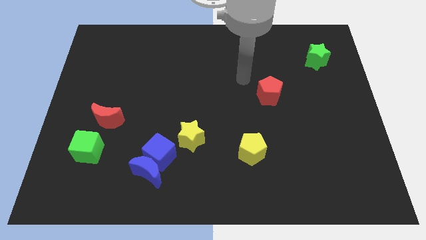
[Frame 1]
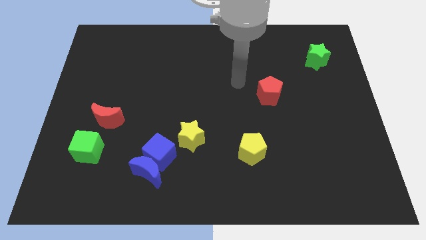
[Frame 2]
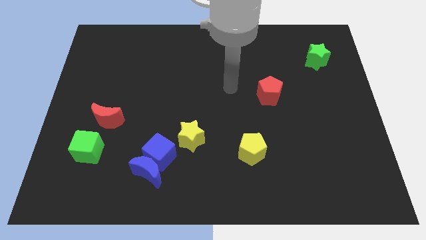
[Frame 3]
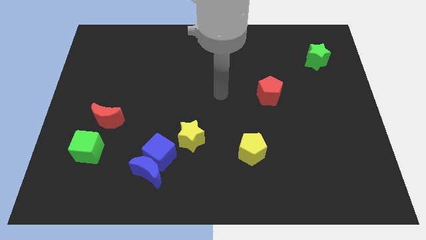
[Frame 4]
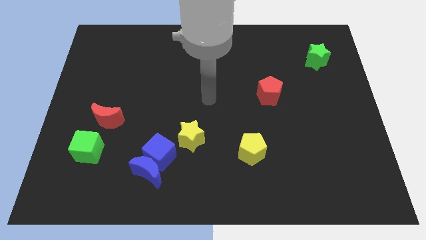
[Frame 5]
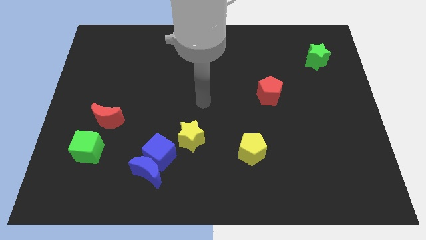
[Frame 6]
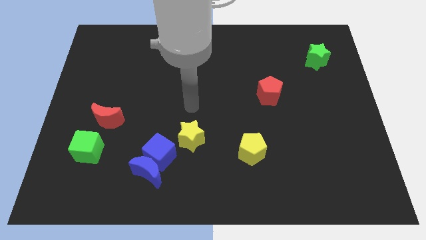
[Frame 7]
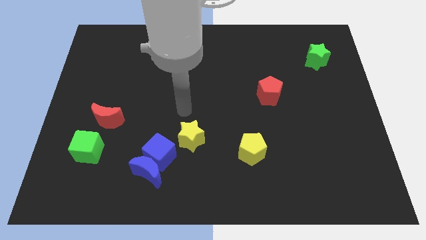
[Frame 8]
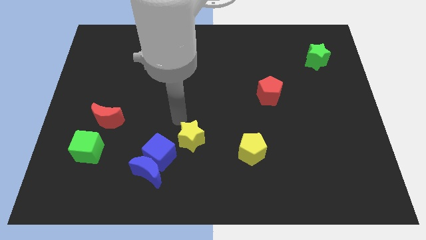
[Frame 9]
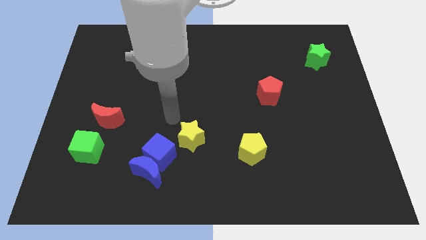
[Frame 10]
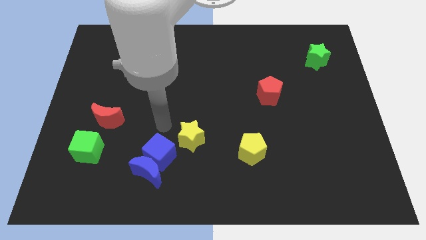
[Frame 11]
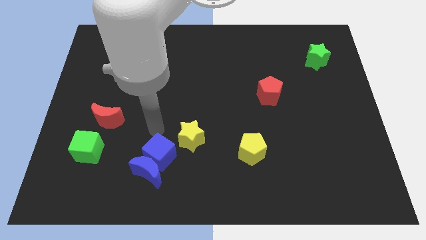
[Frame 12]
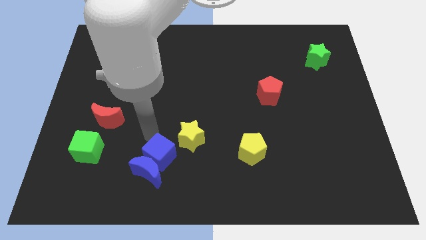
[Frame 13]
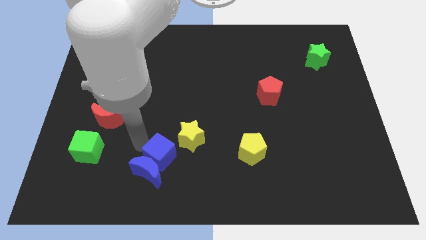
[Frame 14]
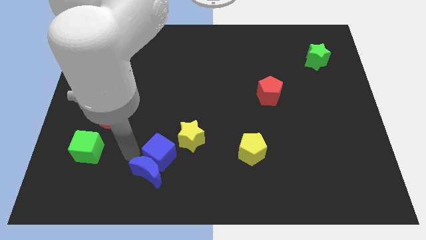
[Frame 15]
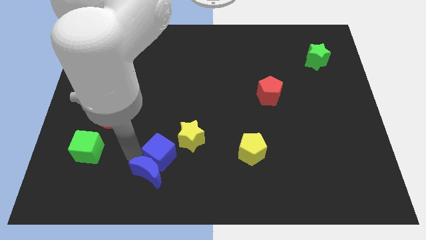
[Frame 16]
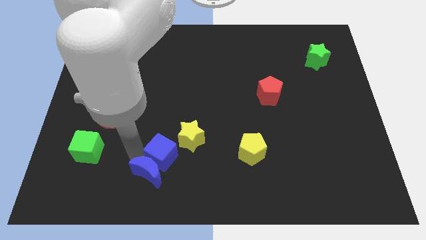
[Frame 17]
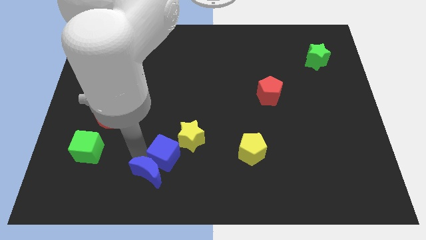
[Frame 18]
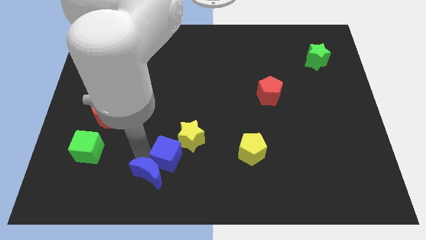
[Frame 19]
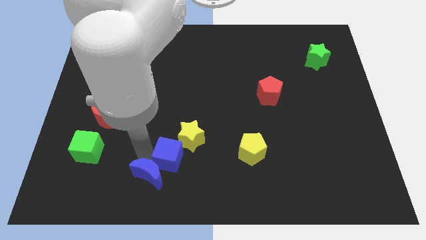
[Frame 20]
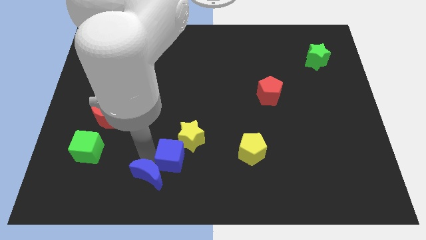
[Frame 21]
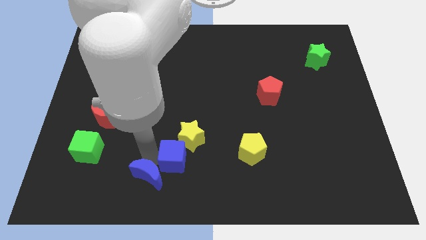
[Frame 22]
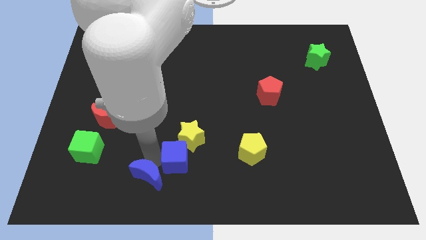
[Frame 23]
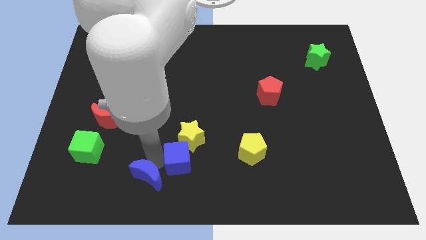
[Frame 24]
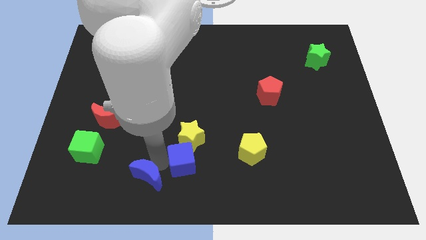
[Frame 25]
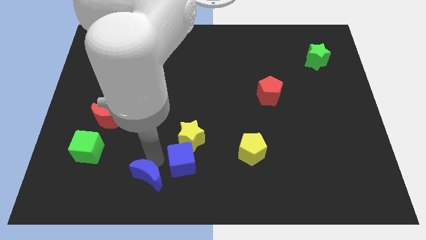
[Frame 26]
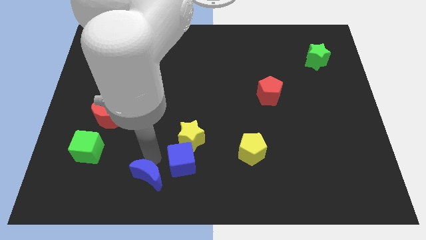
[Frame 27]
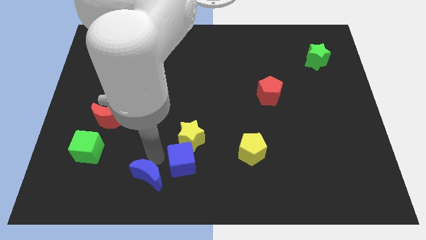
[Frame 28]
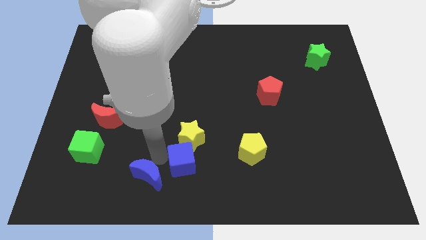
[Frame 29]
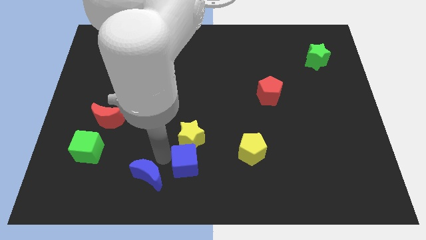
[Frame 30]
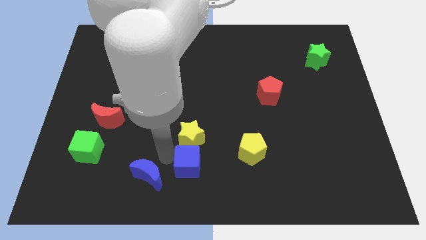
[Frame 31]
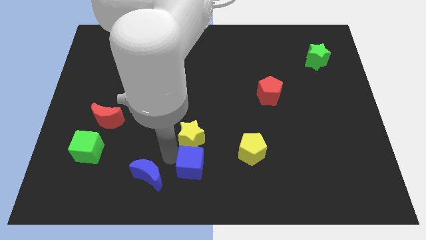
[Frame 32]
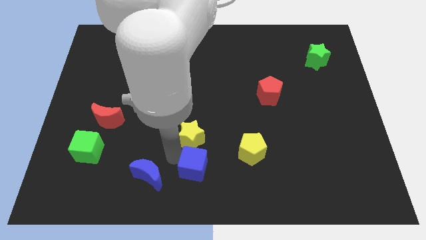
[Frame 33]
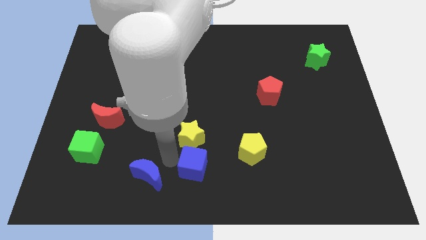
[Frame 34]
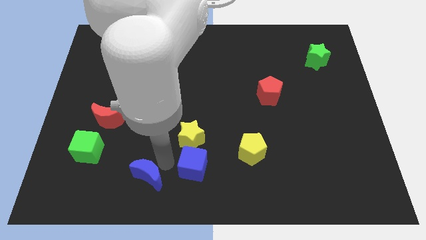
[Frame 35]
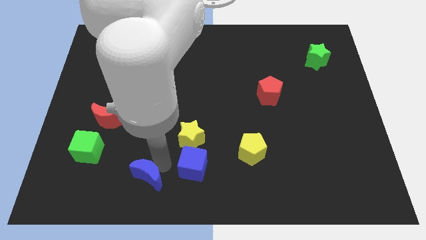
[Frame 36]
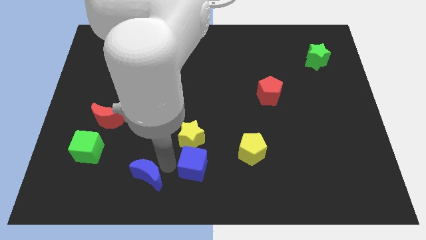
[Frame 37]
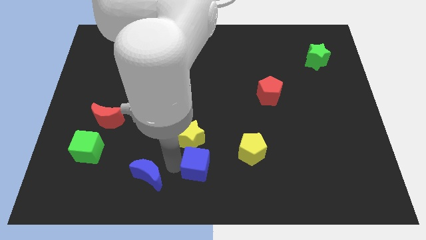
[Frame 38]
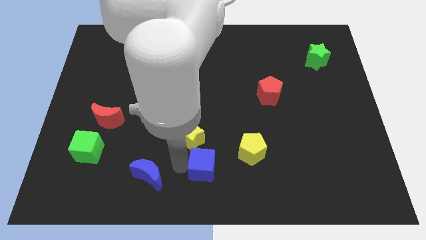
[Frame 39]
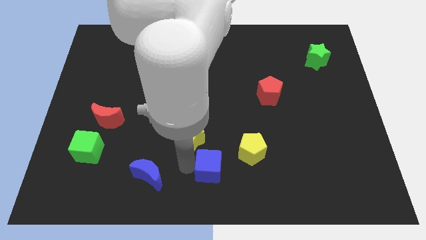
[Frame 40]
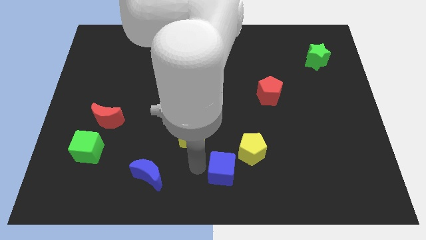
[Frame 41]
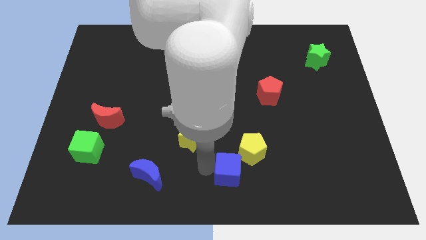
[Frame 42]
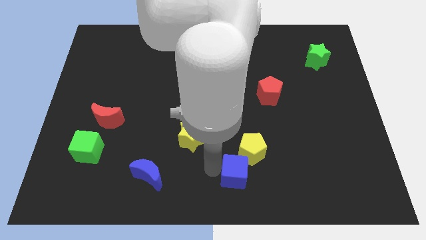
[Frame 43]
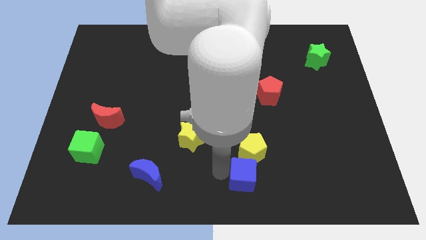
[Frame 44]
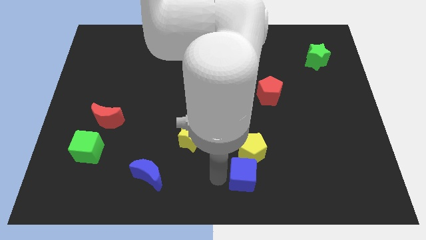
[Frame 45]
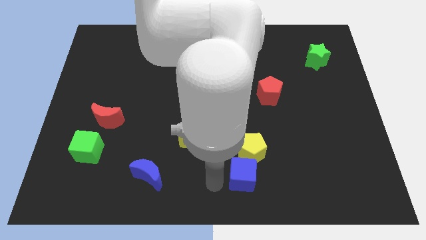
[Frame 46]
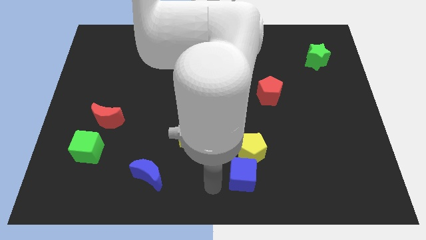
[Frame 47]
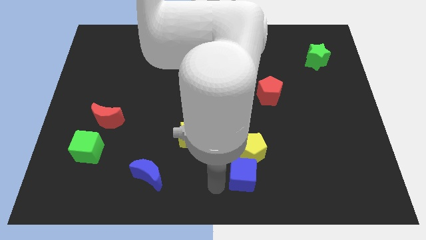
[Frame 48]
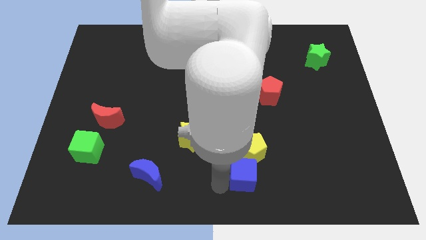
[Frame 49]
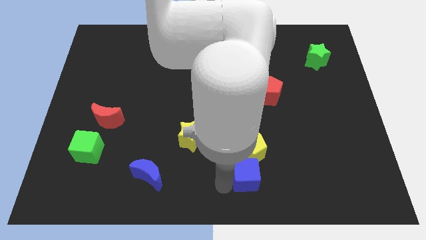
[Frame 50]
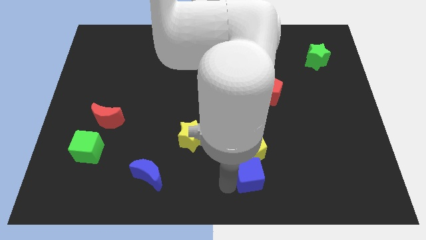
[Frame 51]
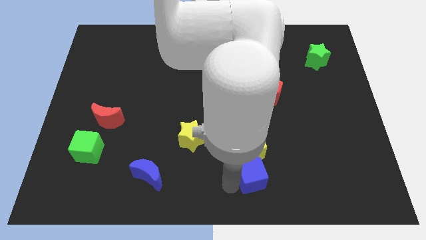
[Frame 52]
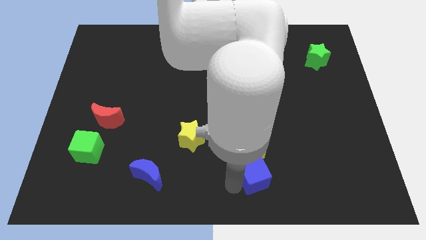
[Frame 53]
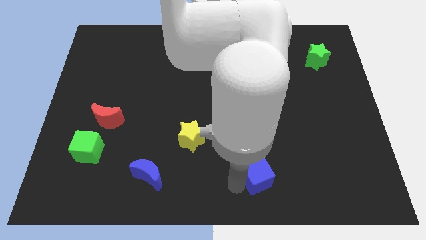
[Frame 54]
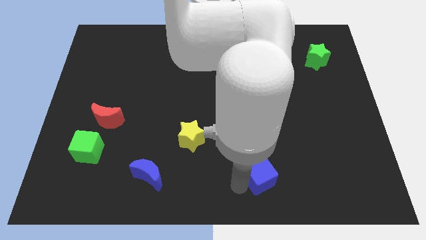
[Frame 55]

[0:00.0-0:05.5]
move the blue cube to the right

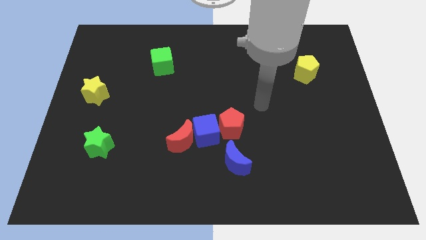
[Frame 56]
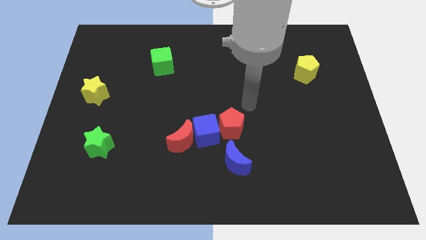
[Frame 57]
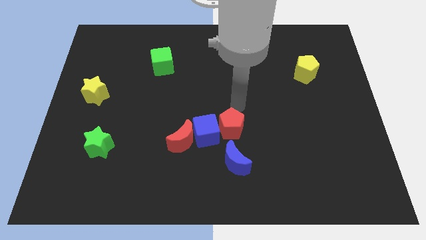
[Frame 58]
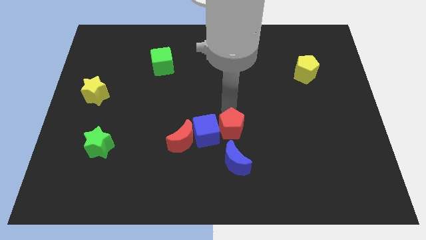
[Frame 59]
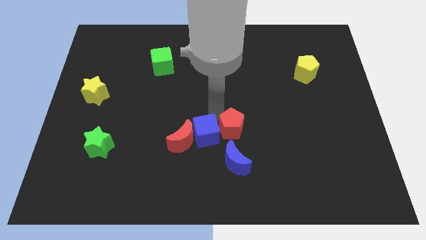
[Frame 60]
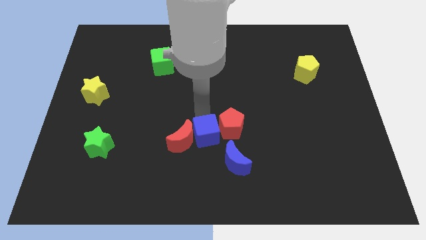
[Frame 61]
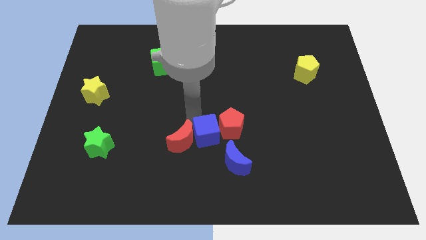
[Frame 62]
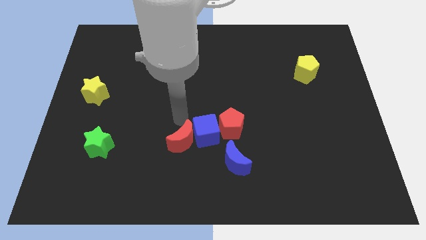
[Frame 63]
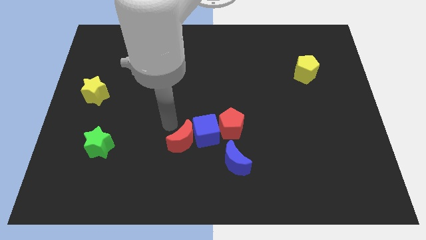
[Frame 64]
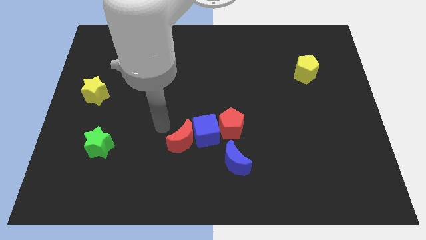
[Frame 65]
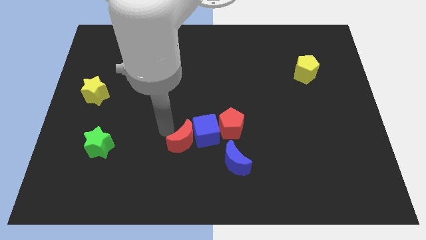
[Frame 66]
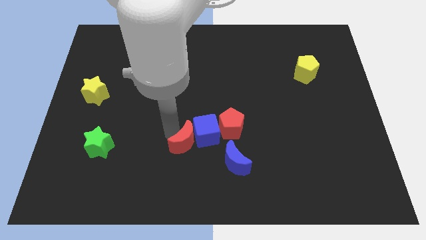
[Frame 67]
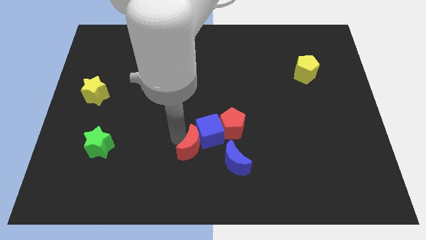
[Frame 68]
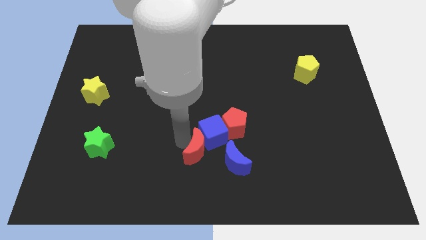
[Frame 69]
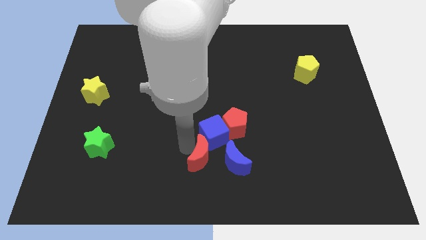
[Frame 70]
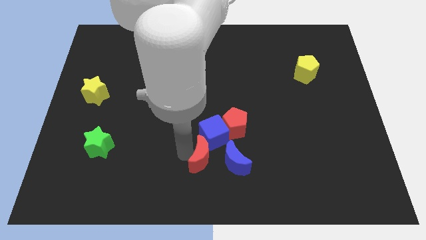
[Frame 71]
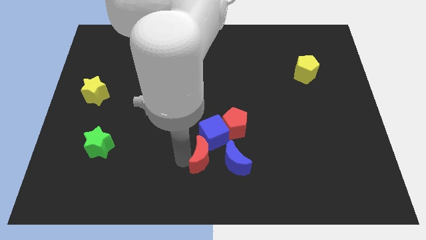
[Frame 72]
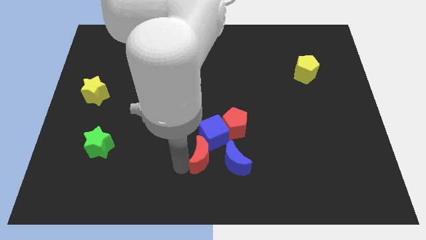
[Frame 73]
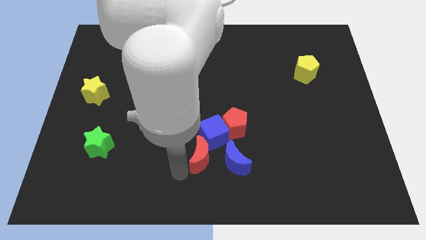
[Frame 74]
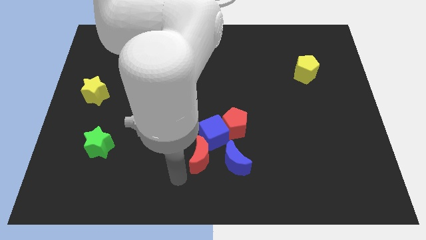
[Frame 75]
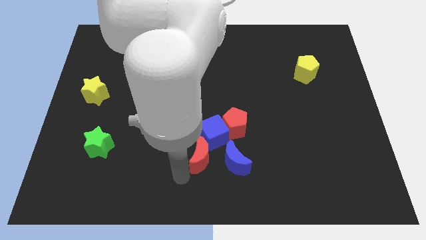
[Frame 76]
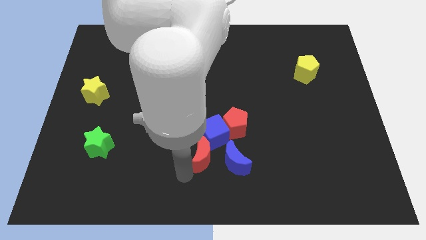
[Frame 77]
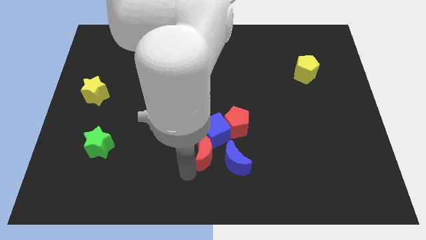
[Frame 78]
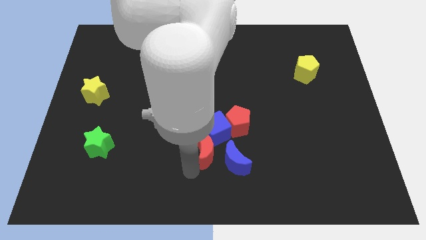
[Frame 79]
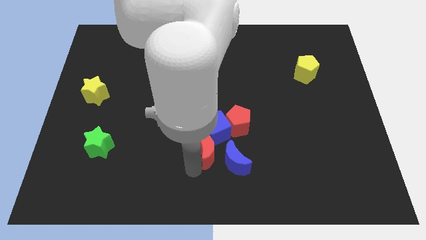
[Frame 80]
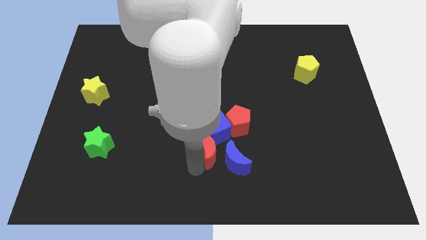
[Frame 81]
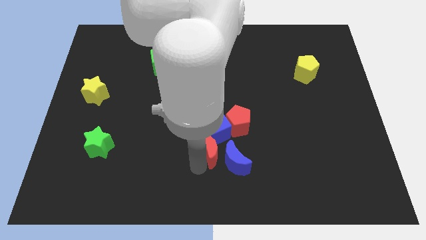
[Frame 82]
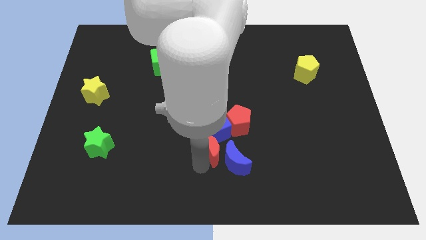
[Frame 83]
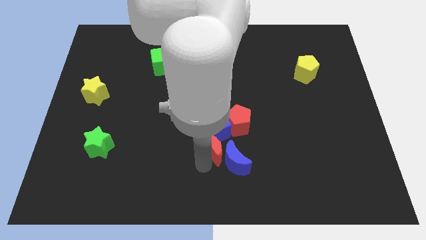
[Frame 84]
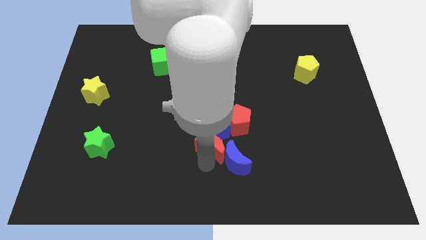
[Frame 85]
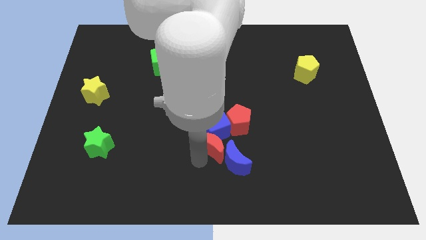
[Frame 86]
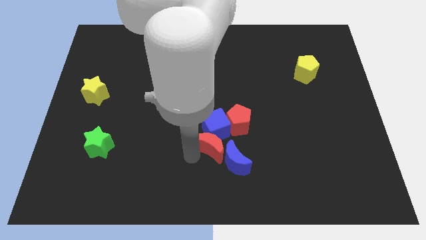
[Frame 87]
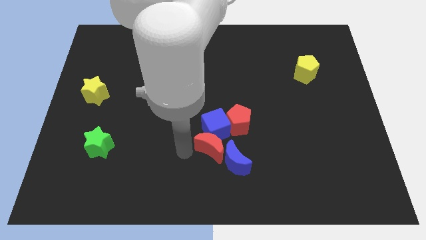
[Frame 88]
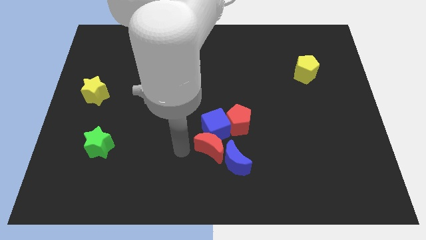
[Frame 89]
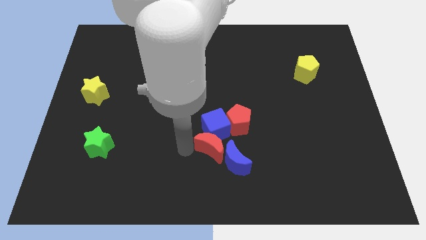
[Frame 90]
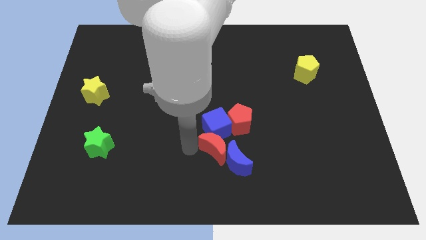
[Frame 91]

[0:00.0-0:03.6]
slightly slide the red moon right
